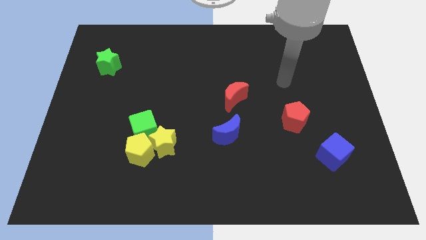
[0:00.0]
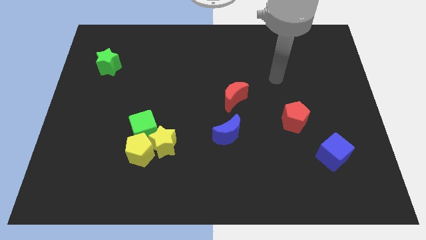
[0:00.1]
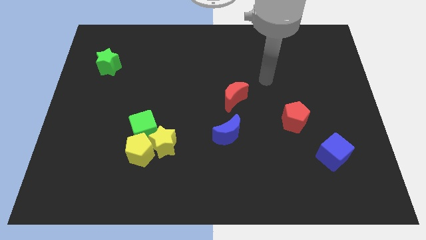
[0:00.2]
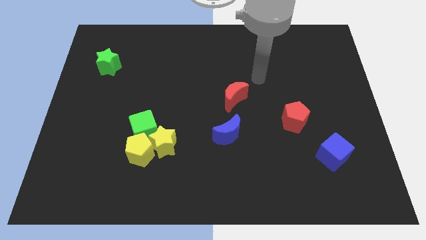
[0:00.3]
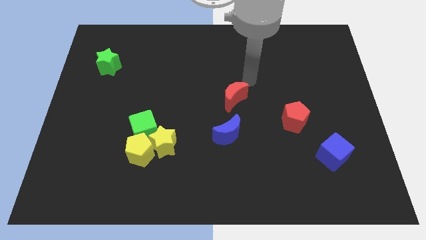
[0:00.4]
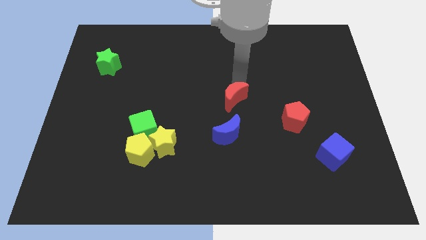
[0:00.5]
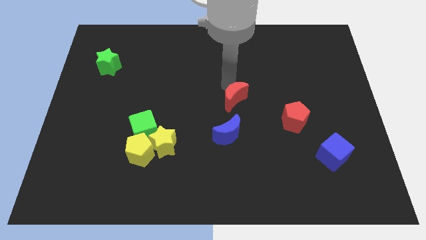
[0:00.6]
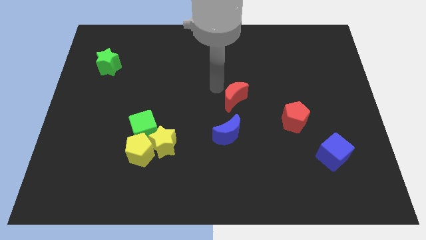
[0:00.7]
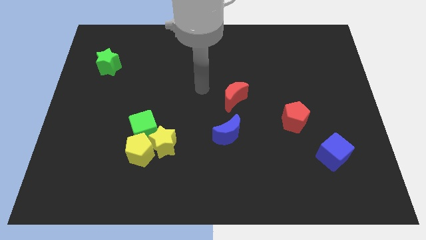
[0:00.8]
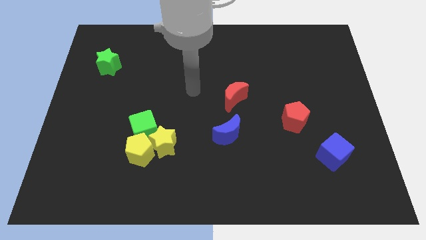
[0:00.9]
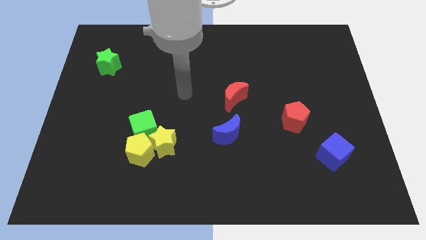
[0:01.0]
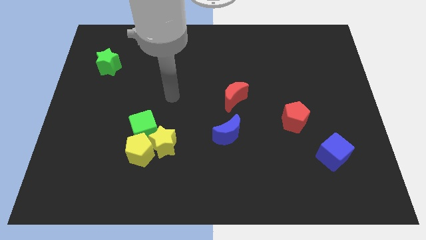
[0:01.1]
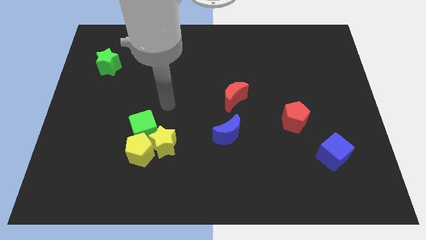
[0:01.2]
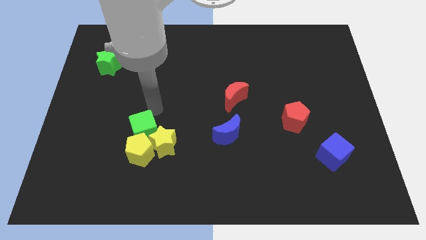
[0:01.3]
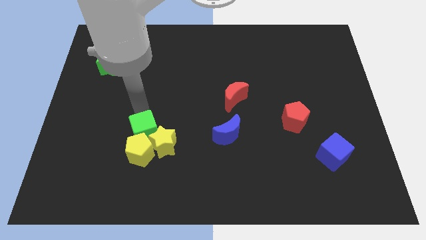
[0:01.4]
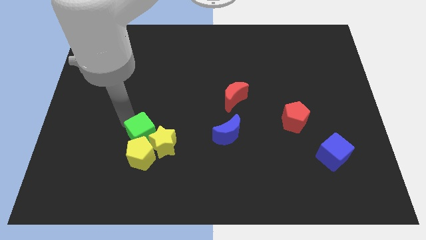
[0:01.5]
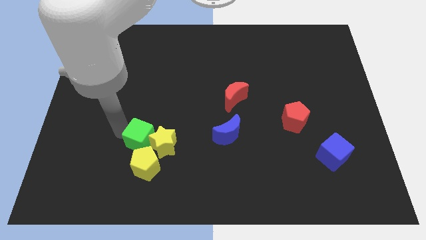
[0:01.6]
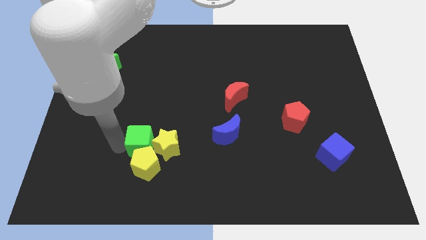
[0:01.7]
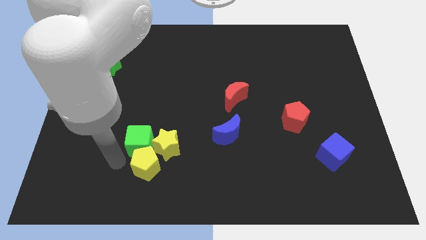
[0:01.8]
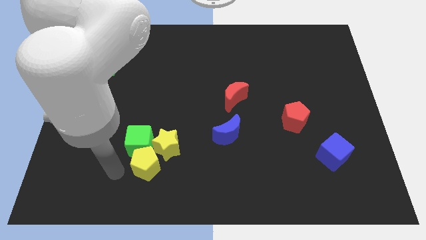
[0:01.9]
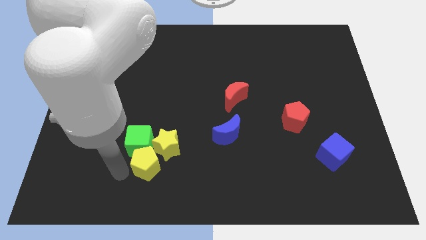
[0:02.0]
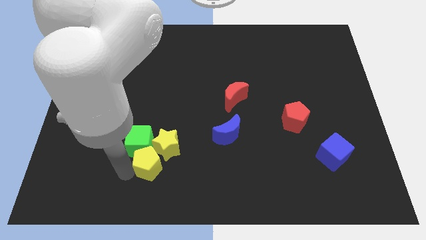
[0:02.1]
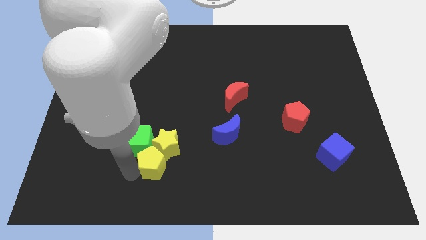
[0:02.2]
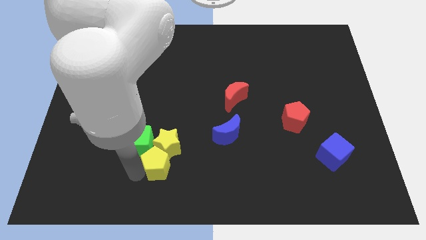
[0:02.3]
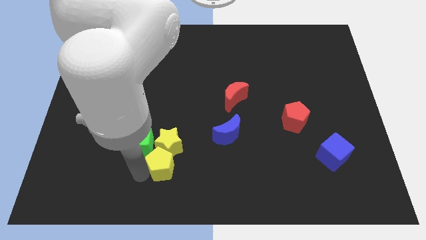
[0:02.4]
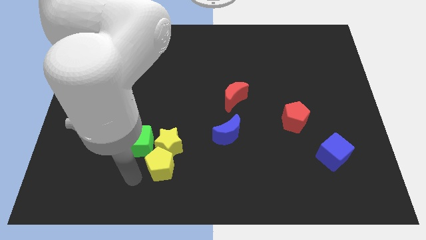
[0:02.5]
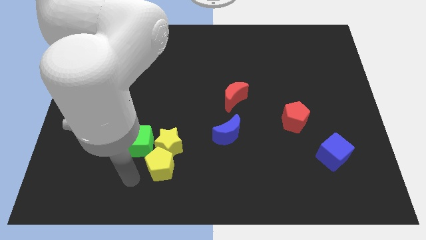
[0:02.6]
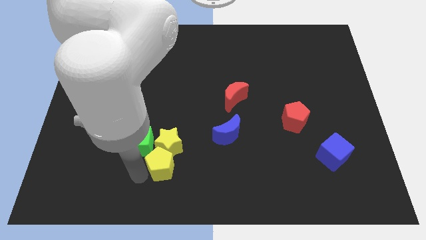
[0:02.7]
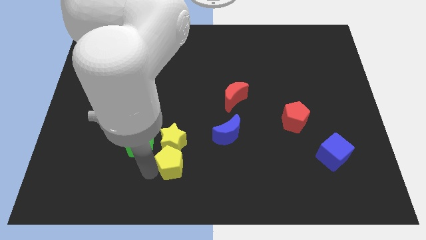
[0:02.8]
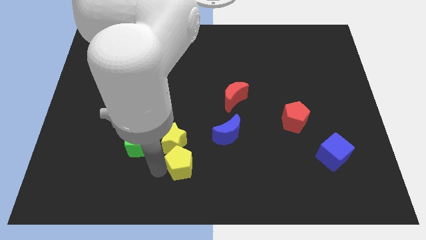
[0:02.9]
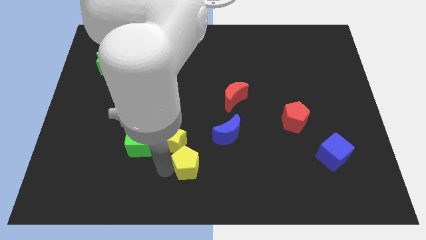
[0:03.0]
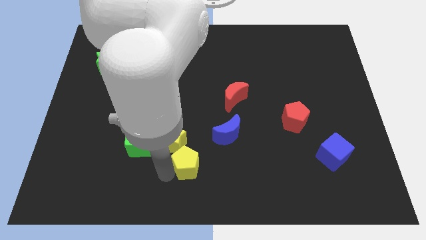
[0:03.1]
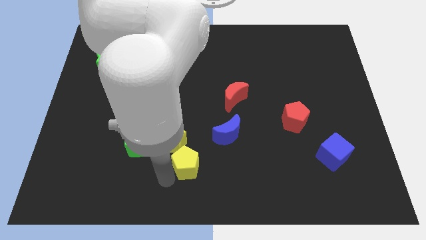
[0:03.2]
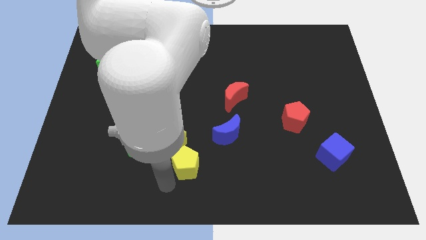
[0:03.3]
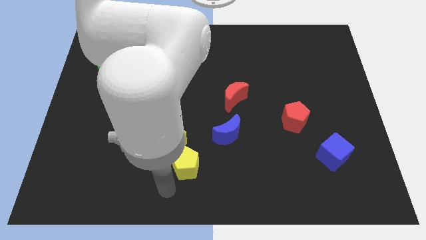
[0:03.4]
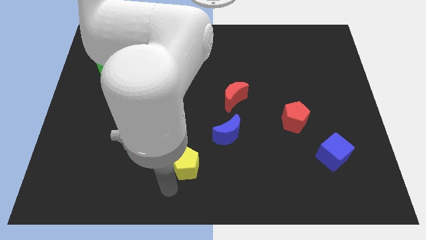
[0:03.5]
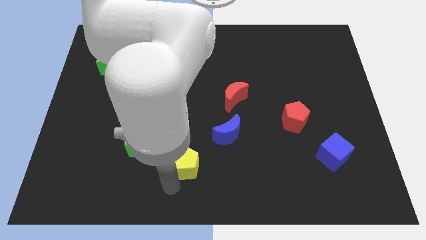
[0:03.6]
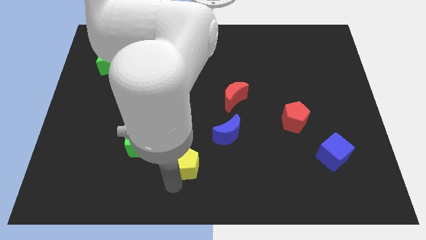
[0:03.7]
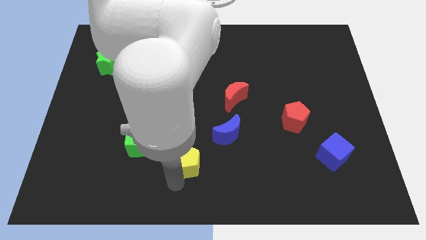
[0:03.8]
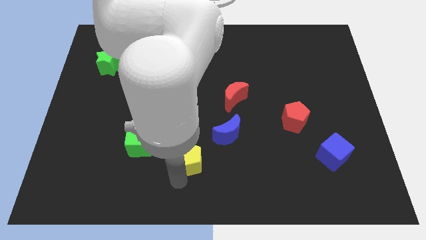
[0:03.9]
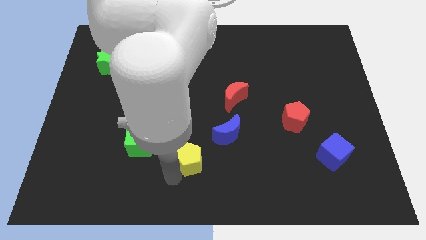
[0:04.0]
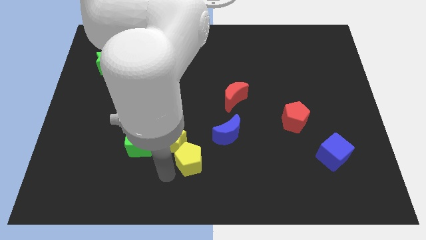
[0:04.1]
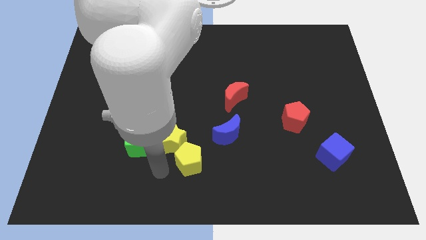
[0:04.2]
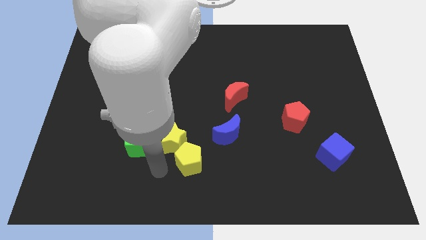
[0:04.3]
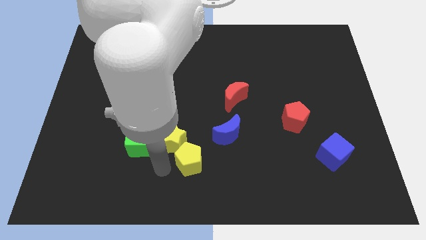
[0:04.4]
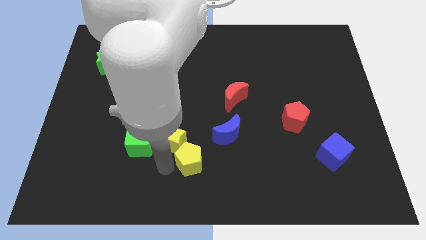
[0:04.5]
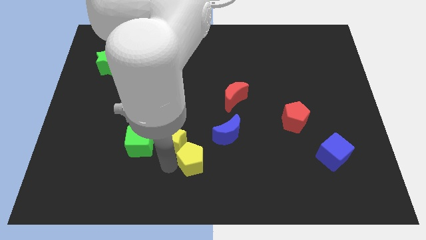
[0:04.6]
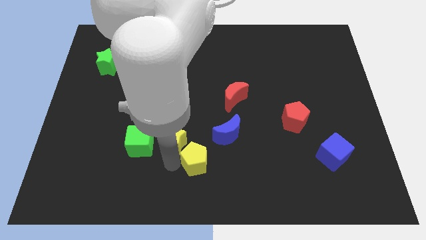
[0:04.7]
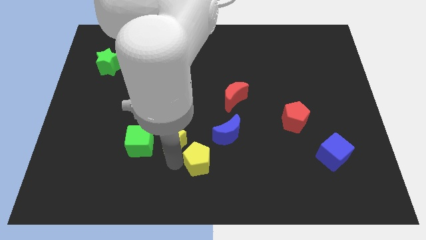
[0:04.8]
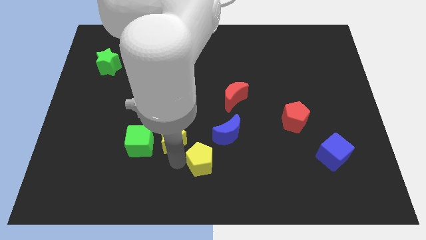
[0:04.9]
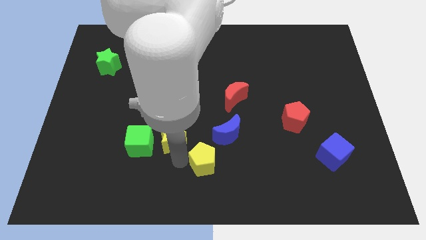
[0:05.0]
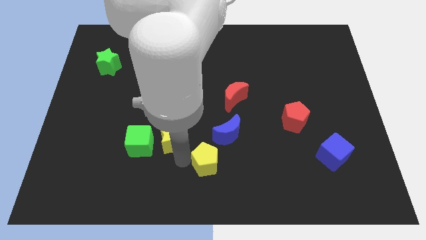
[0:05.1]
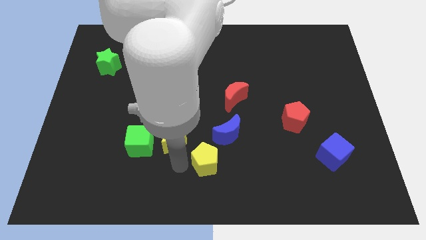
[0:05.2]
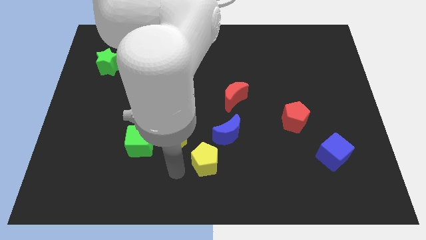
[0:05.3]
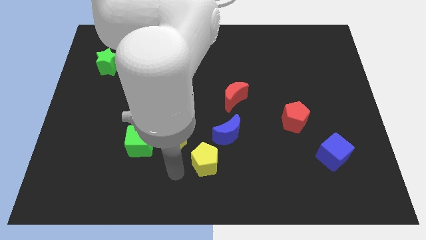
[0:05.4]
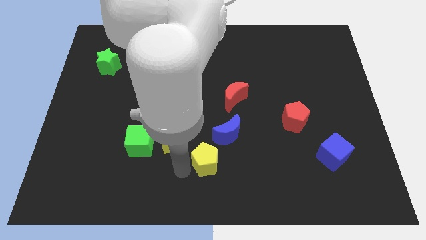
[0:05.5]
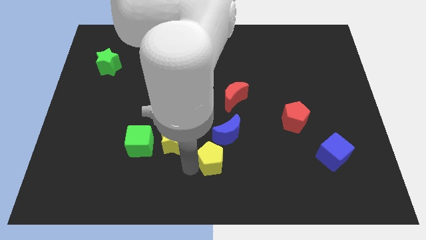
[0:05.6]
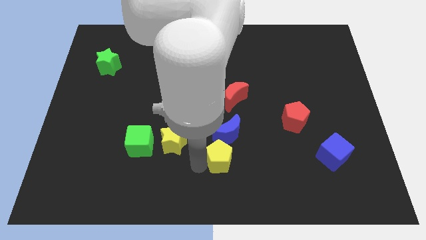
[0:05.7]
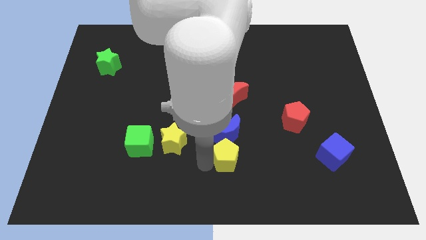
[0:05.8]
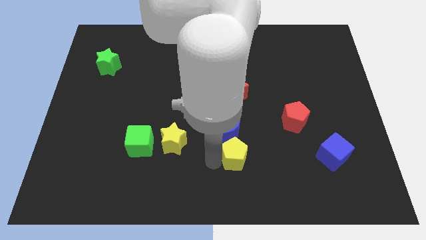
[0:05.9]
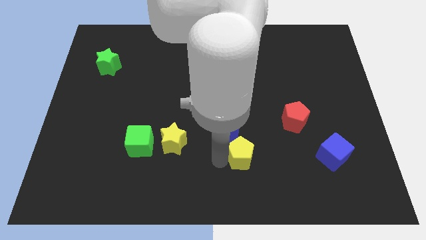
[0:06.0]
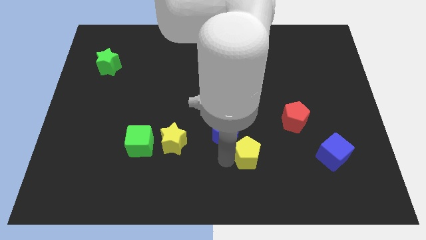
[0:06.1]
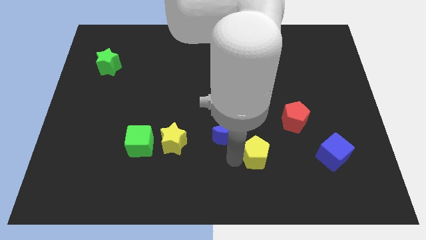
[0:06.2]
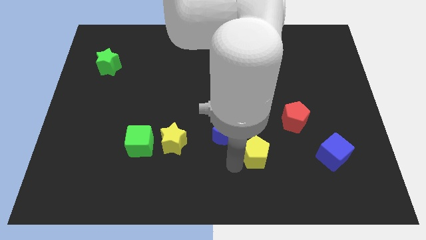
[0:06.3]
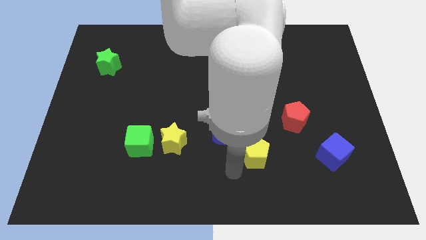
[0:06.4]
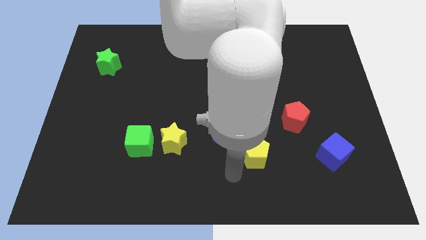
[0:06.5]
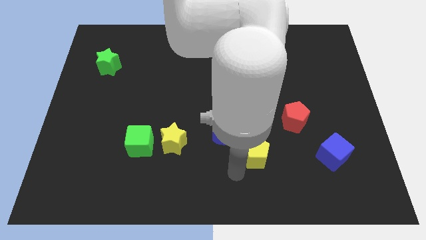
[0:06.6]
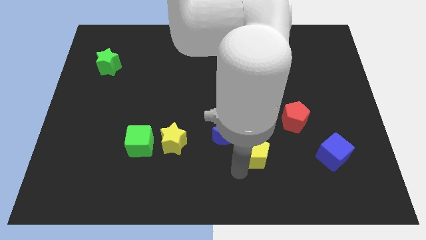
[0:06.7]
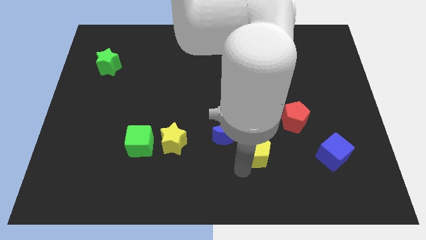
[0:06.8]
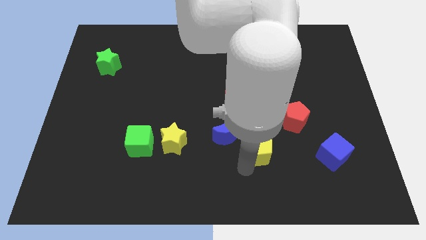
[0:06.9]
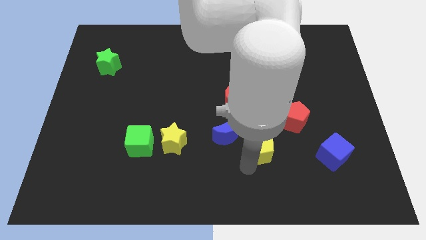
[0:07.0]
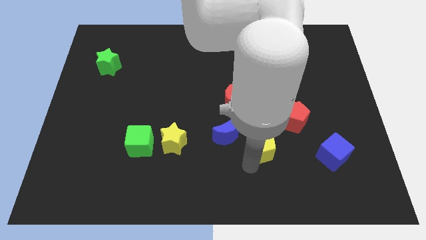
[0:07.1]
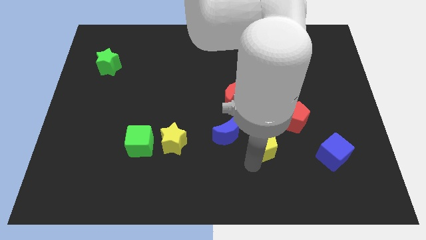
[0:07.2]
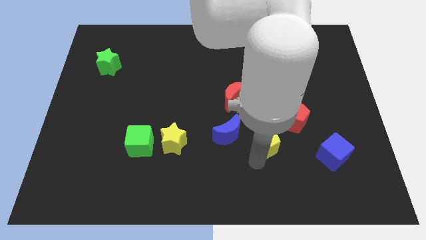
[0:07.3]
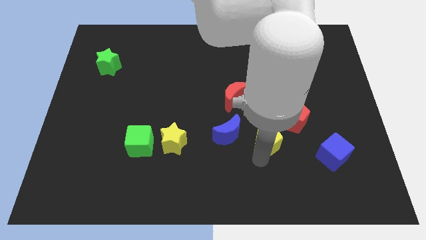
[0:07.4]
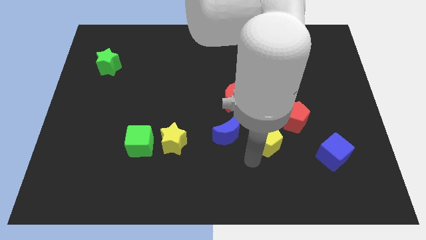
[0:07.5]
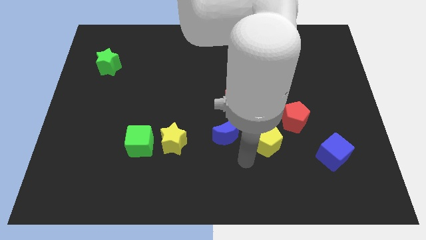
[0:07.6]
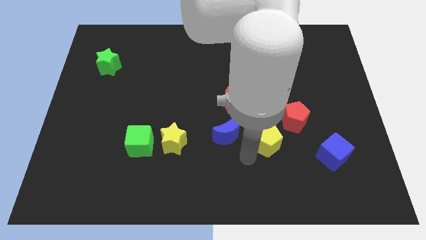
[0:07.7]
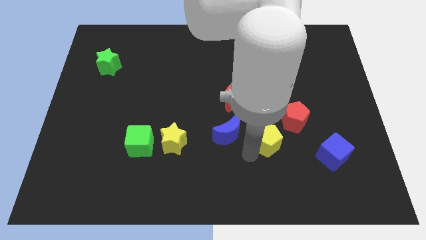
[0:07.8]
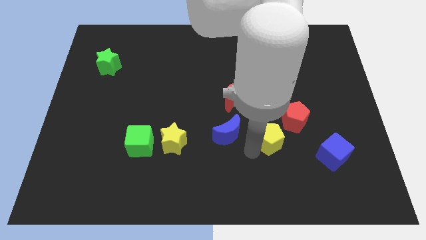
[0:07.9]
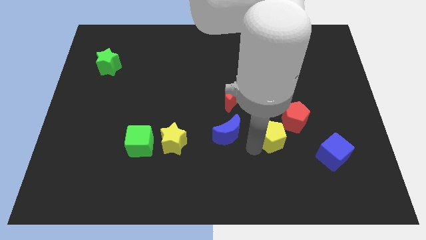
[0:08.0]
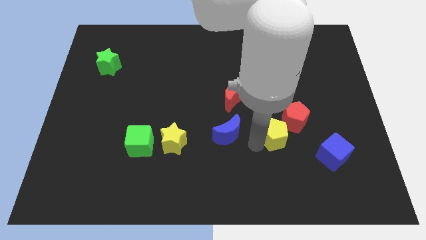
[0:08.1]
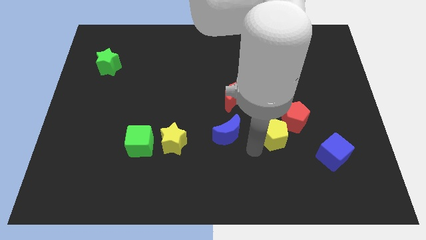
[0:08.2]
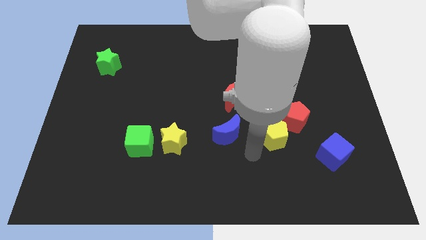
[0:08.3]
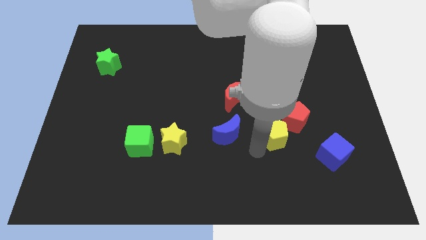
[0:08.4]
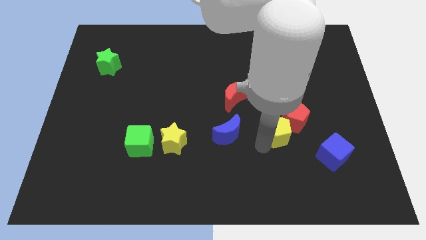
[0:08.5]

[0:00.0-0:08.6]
slide the yellow pentagon towards the red pentagon
